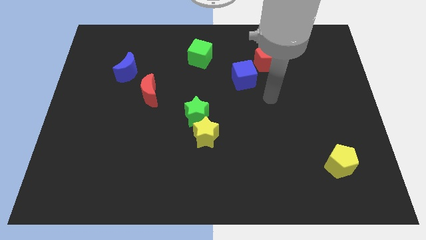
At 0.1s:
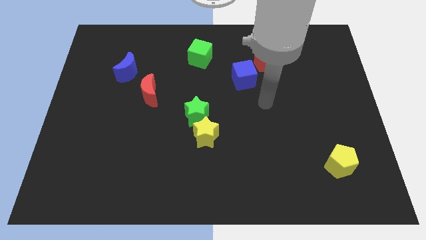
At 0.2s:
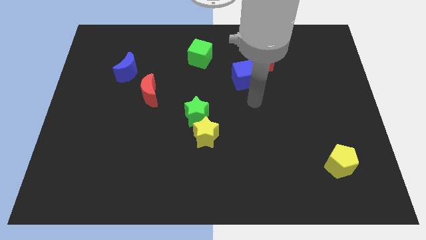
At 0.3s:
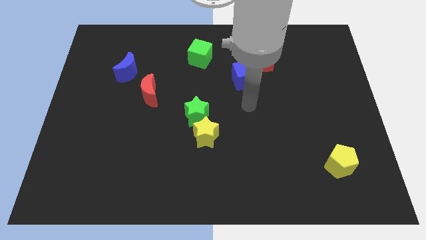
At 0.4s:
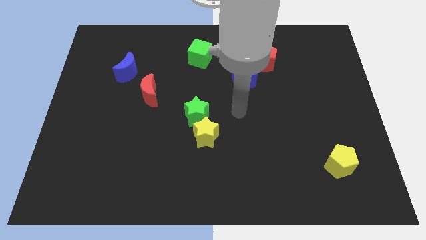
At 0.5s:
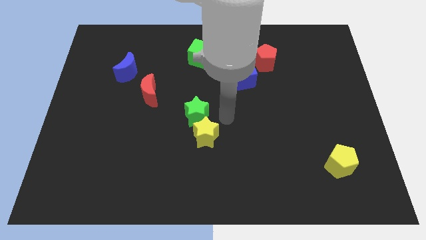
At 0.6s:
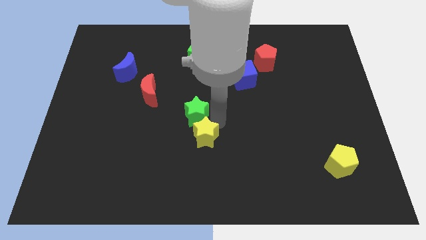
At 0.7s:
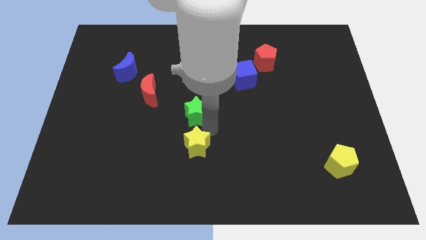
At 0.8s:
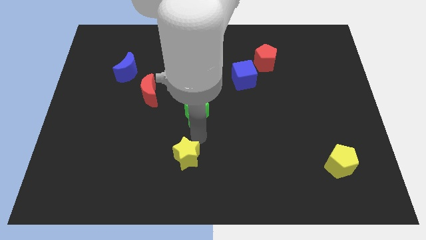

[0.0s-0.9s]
move the green star away from the yellow star

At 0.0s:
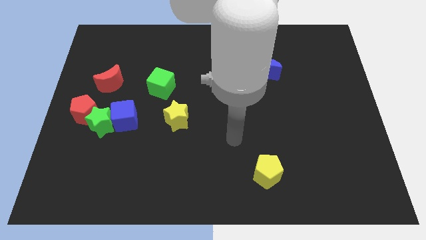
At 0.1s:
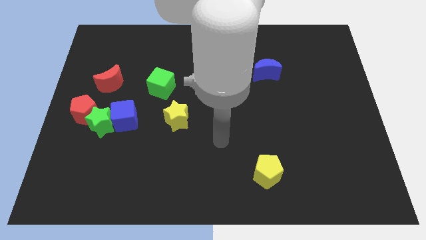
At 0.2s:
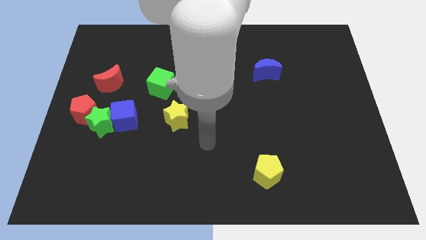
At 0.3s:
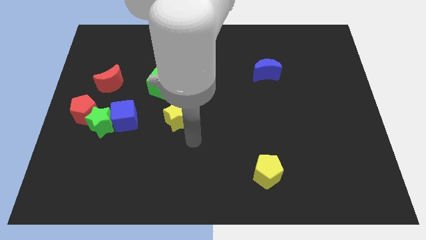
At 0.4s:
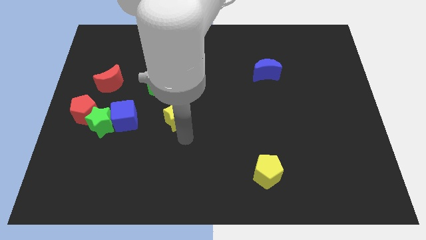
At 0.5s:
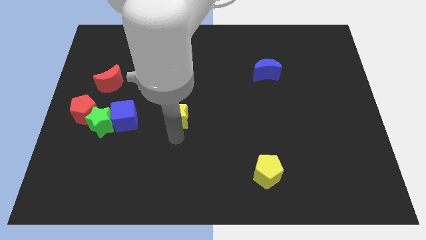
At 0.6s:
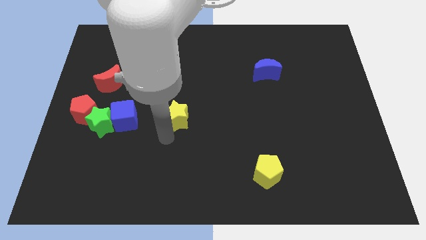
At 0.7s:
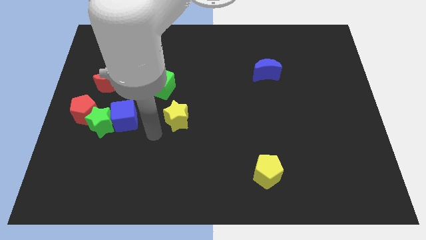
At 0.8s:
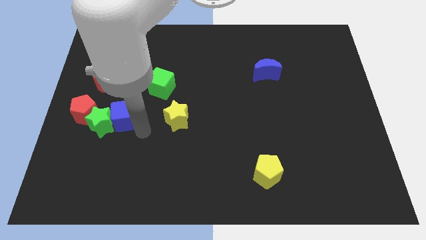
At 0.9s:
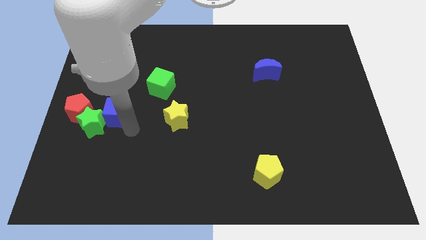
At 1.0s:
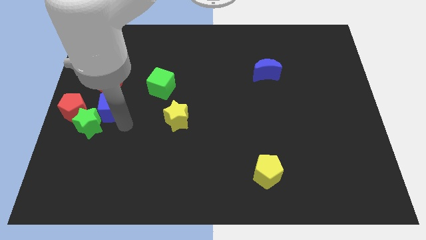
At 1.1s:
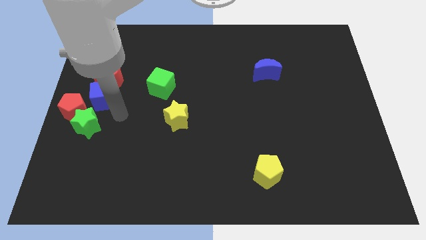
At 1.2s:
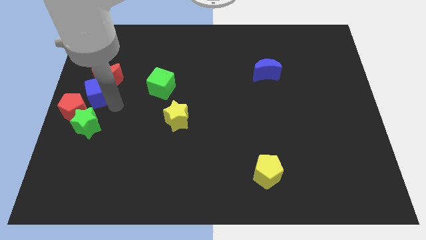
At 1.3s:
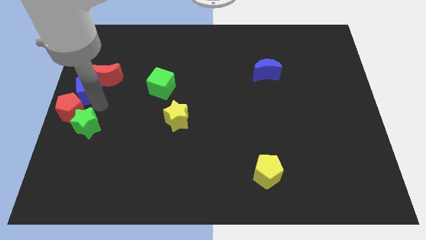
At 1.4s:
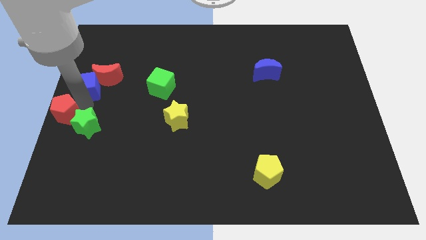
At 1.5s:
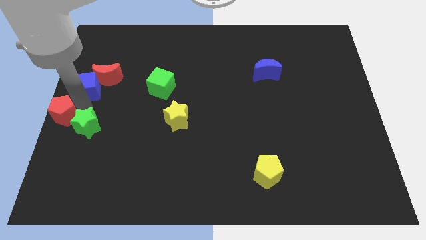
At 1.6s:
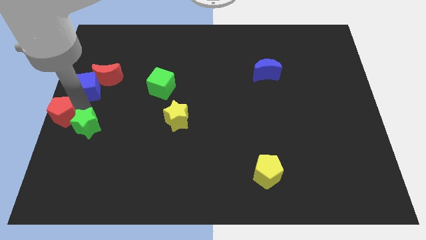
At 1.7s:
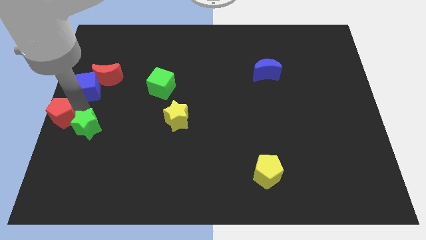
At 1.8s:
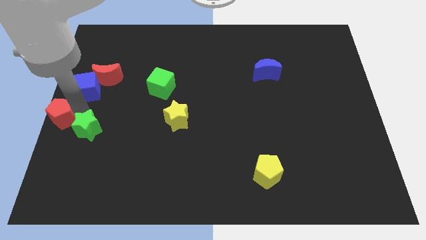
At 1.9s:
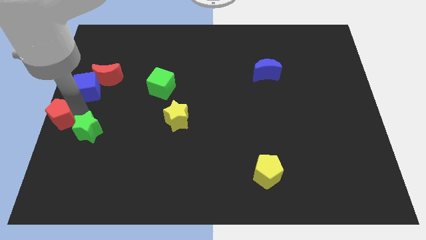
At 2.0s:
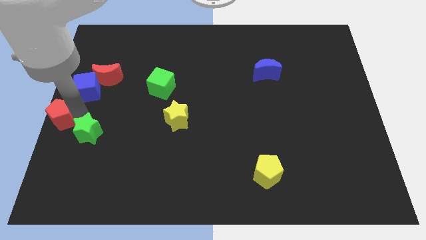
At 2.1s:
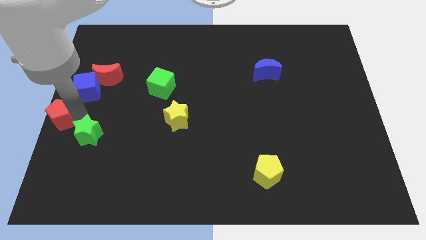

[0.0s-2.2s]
pull the green star apart from the blue cube and red pentagon

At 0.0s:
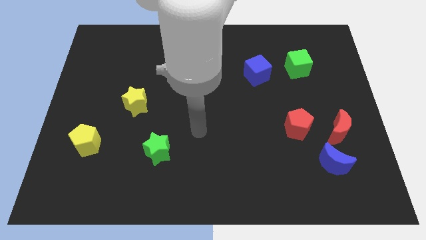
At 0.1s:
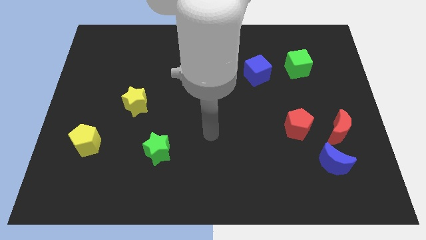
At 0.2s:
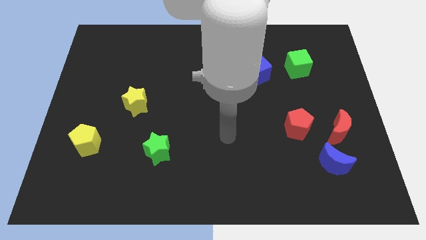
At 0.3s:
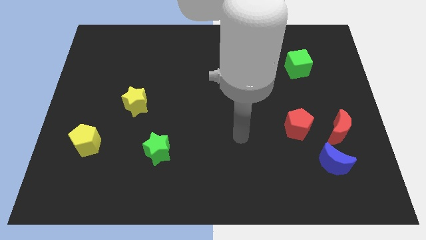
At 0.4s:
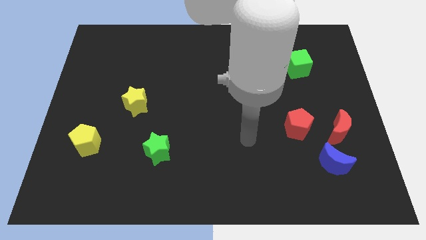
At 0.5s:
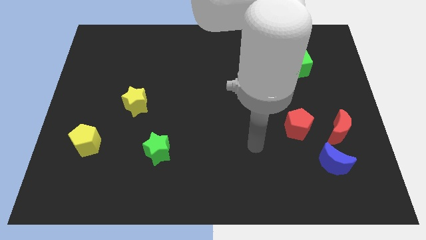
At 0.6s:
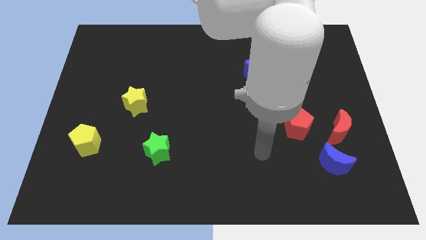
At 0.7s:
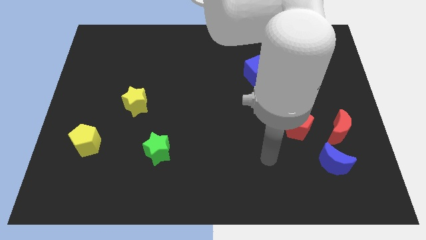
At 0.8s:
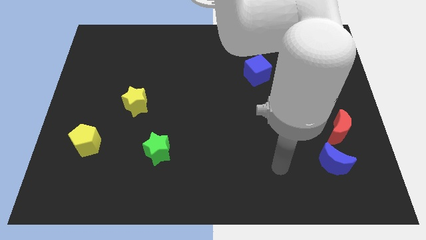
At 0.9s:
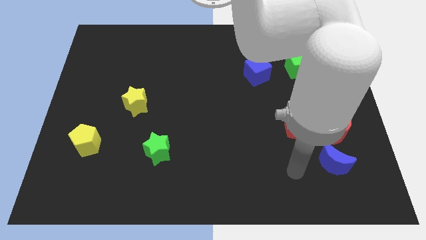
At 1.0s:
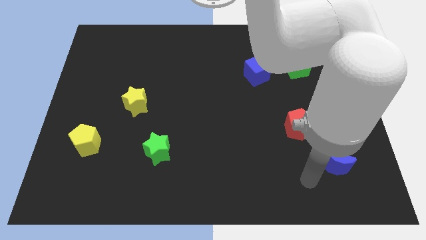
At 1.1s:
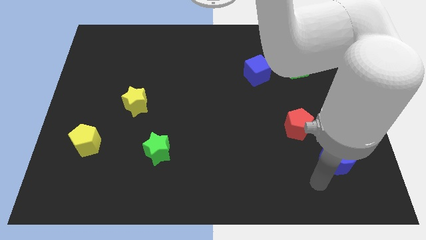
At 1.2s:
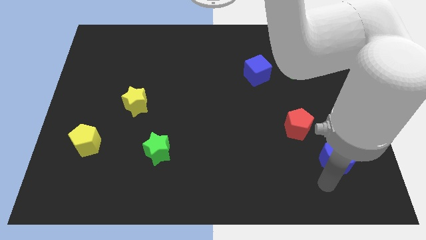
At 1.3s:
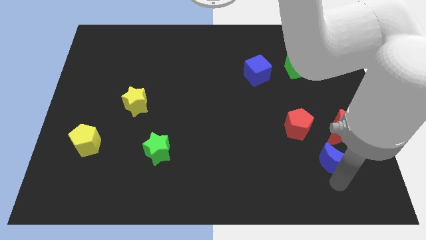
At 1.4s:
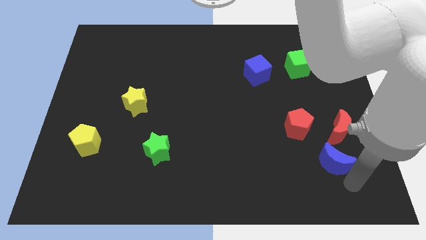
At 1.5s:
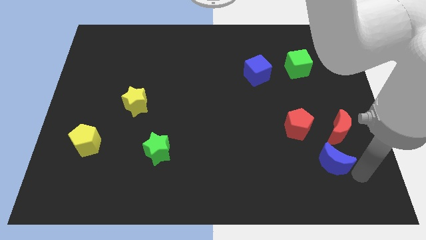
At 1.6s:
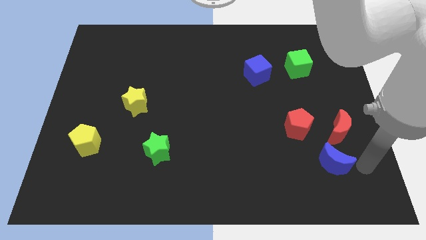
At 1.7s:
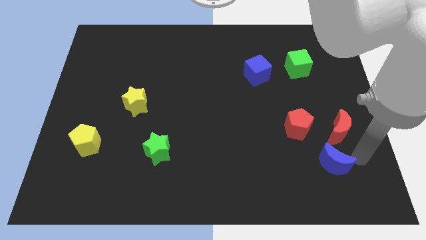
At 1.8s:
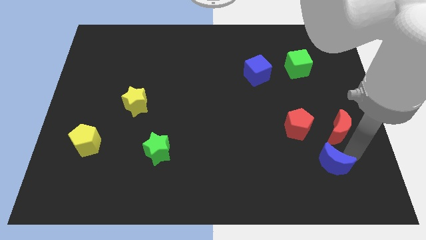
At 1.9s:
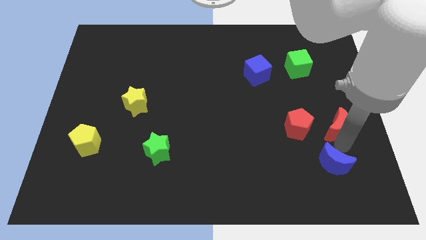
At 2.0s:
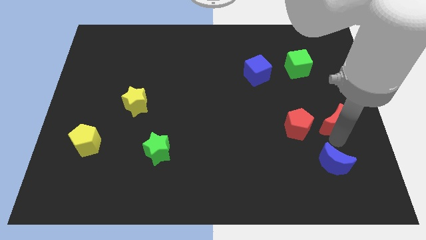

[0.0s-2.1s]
pull the blue moon apart from the red moon

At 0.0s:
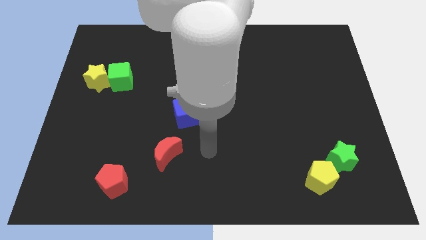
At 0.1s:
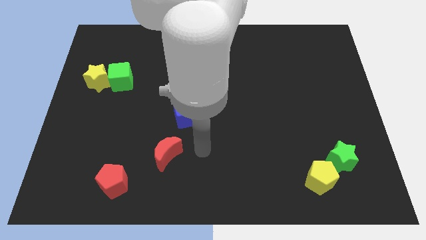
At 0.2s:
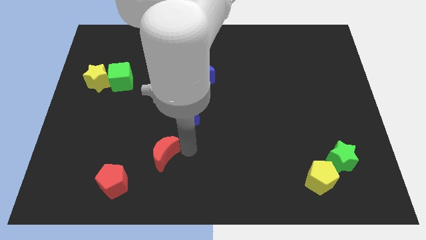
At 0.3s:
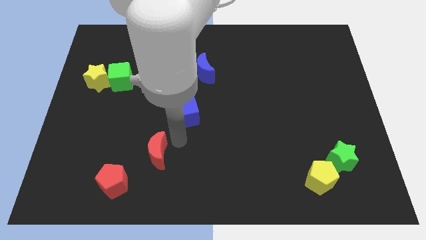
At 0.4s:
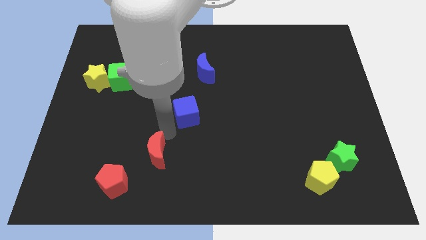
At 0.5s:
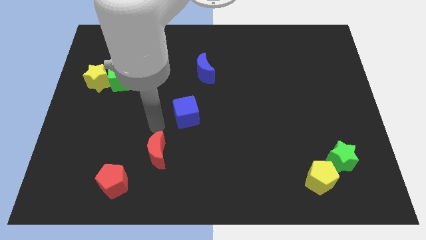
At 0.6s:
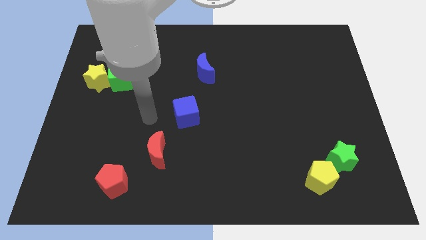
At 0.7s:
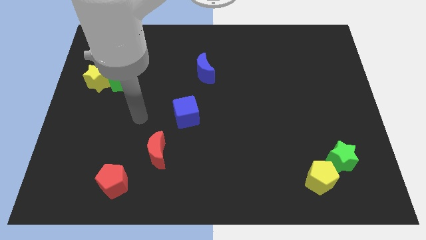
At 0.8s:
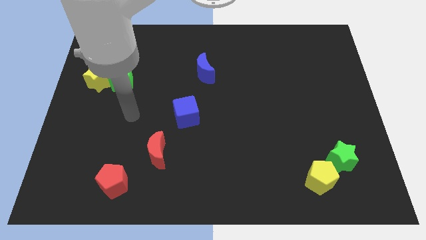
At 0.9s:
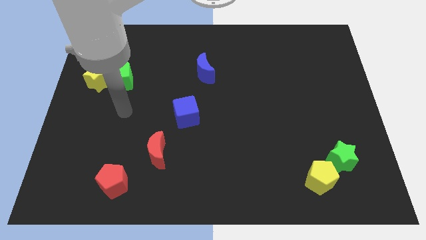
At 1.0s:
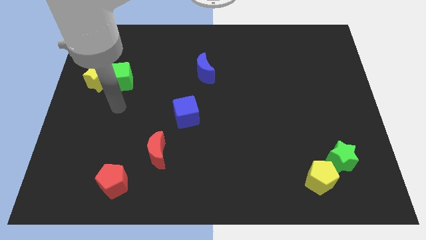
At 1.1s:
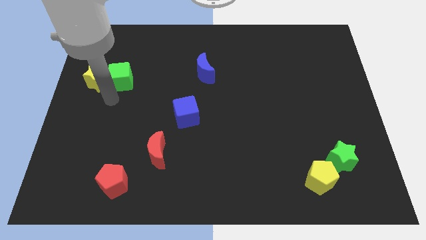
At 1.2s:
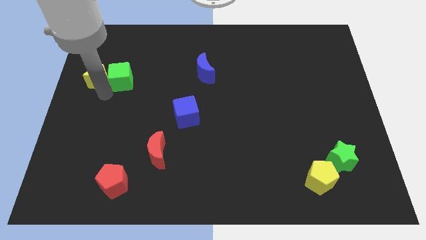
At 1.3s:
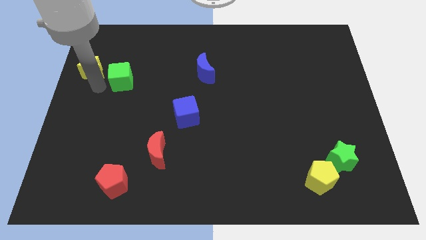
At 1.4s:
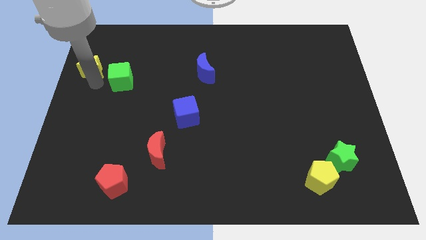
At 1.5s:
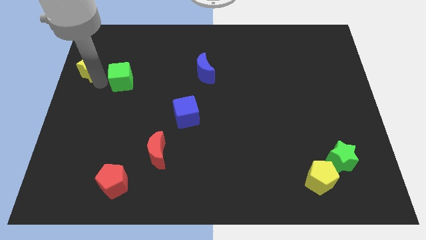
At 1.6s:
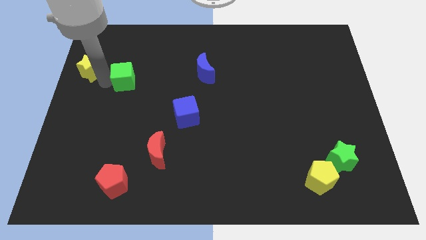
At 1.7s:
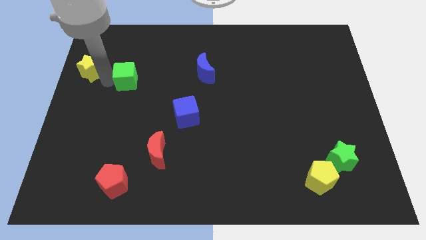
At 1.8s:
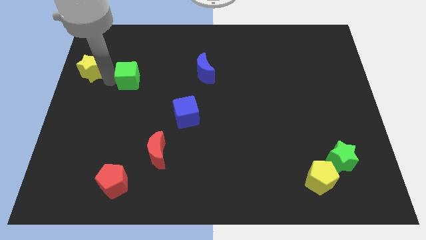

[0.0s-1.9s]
move the green cube away from the yellow star

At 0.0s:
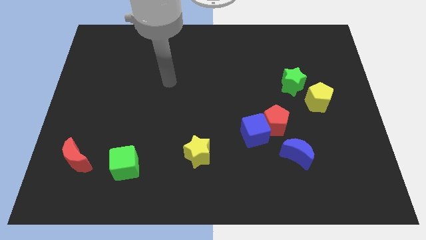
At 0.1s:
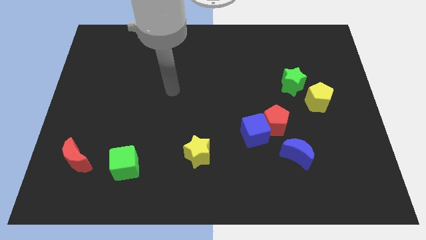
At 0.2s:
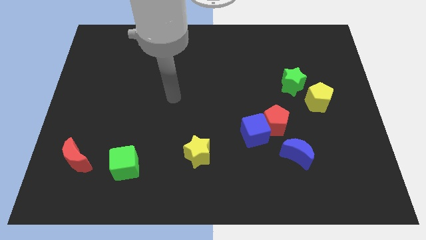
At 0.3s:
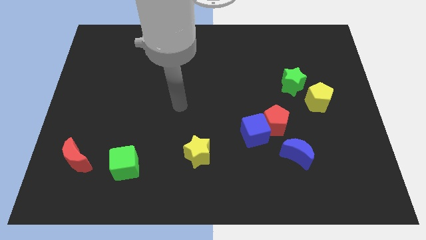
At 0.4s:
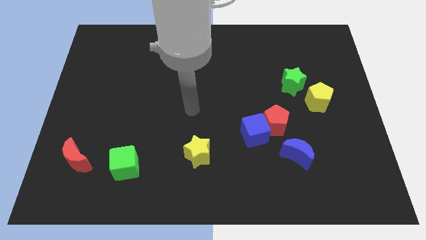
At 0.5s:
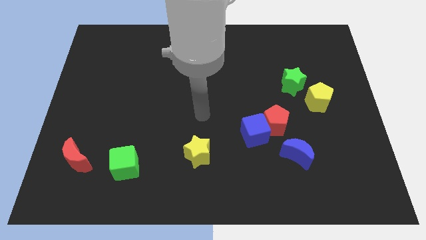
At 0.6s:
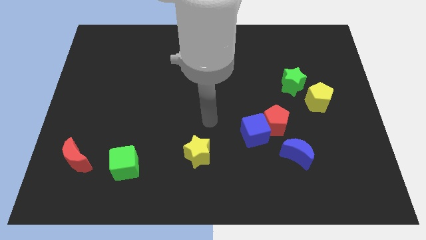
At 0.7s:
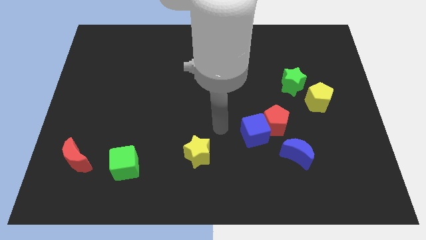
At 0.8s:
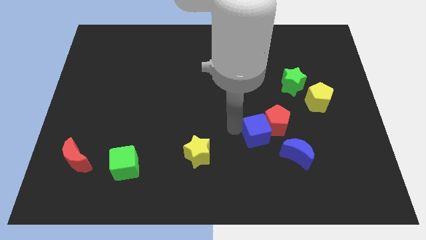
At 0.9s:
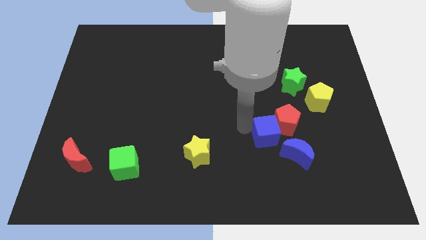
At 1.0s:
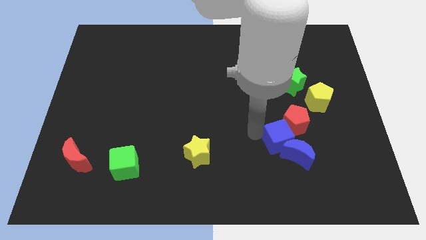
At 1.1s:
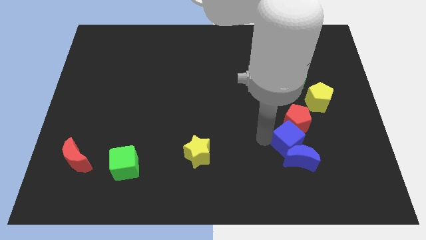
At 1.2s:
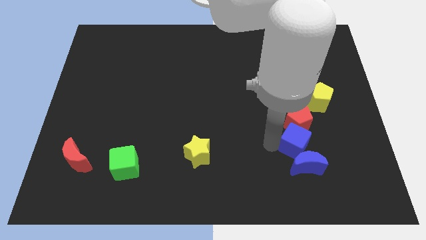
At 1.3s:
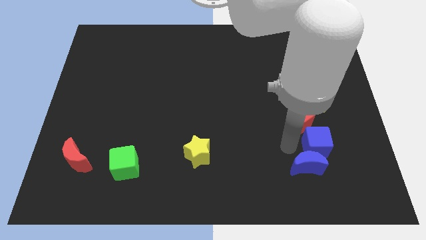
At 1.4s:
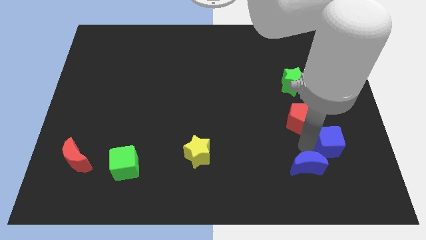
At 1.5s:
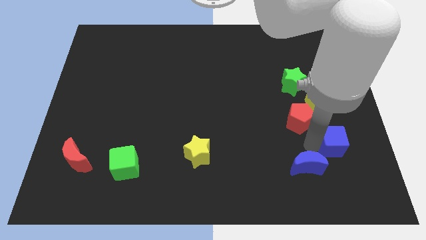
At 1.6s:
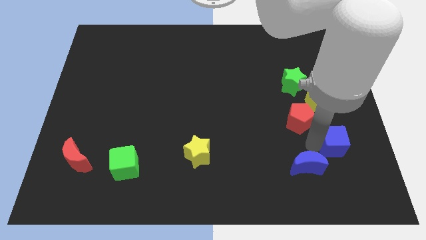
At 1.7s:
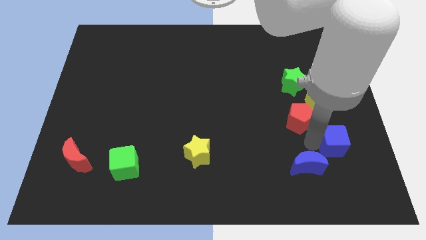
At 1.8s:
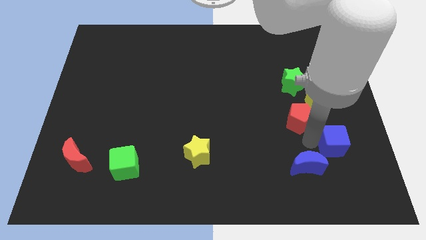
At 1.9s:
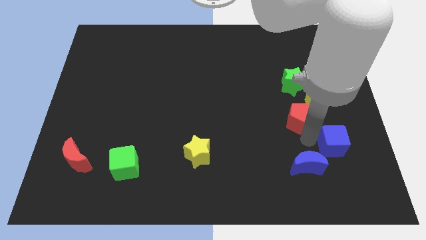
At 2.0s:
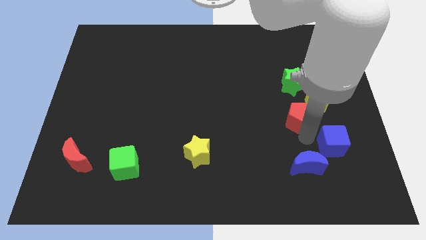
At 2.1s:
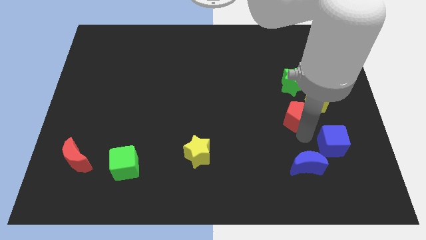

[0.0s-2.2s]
move the red pentagon away from the blue cube and blue moon
